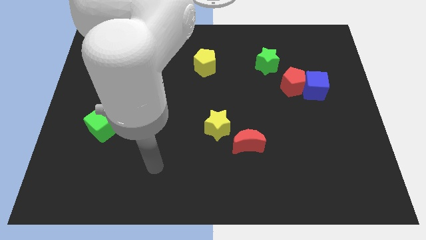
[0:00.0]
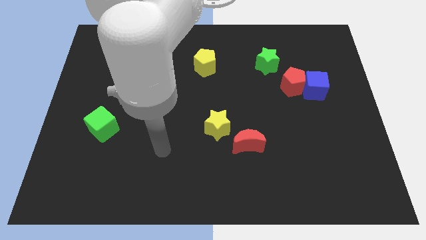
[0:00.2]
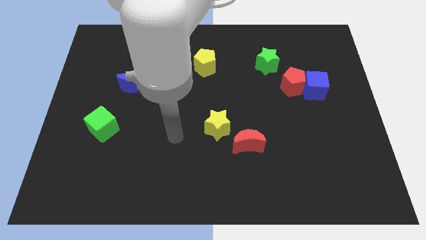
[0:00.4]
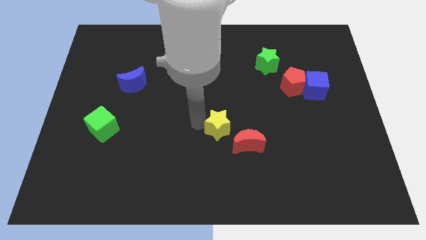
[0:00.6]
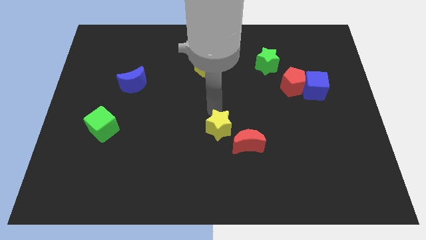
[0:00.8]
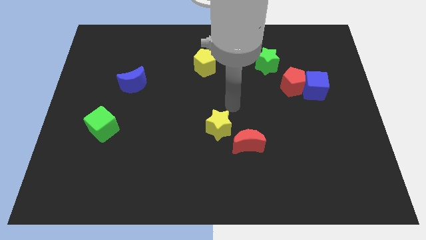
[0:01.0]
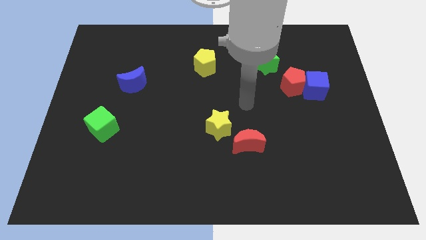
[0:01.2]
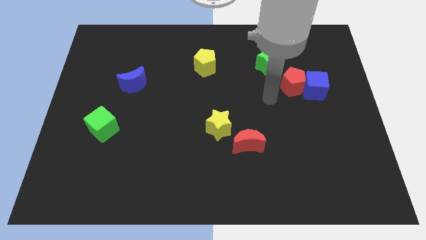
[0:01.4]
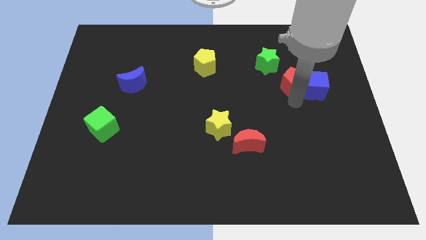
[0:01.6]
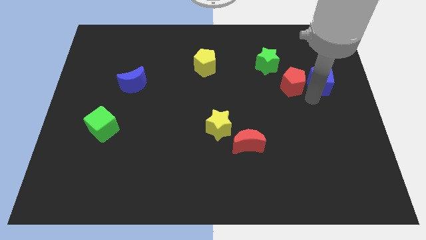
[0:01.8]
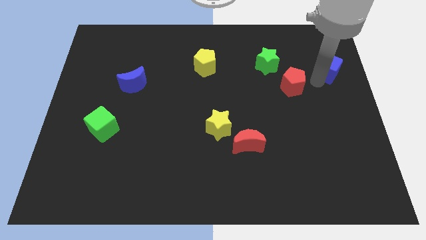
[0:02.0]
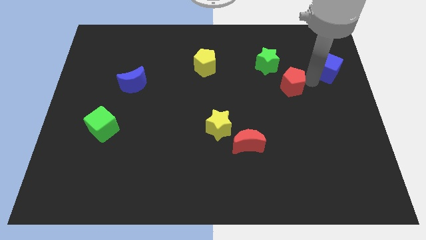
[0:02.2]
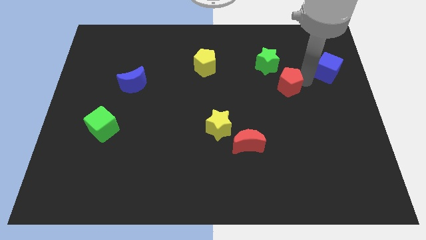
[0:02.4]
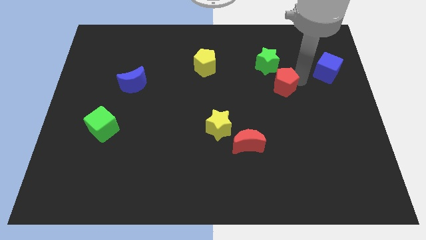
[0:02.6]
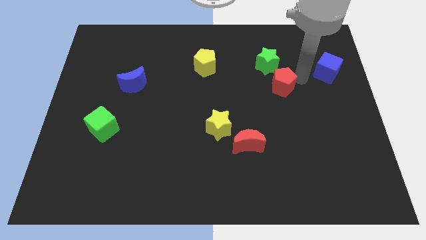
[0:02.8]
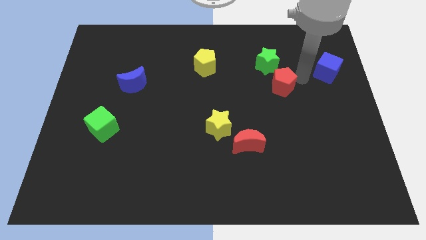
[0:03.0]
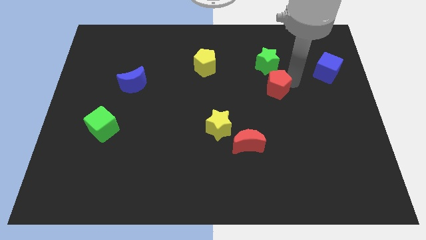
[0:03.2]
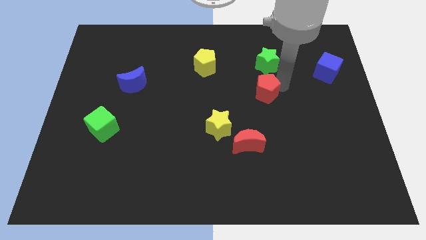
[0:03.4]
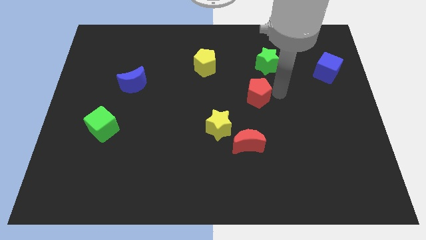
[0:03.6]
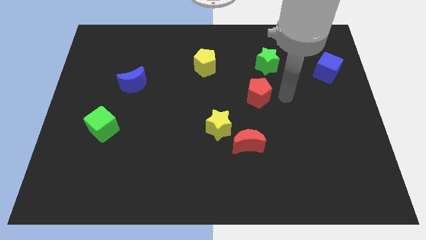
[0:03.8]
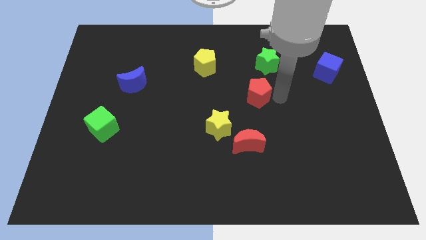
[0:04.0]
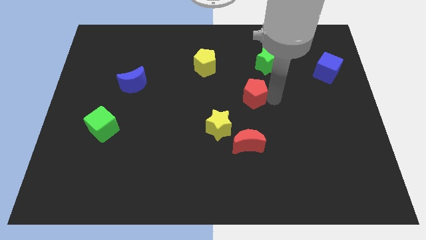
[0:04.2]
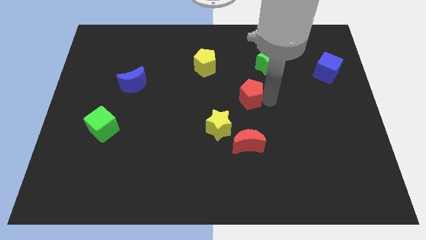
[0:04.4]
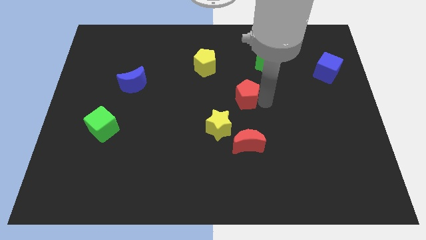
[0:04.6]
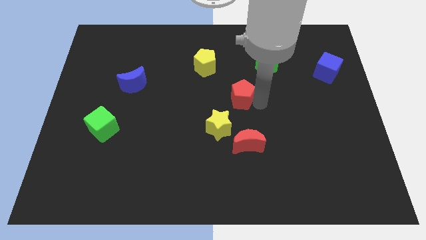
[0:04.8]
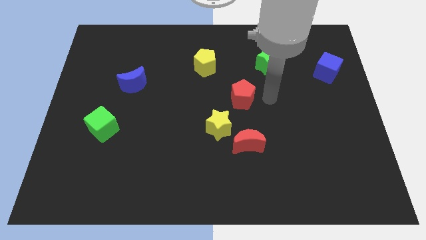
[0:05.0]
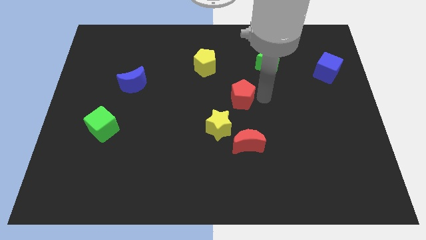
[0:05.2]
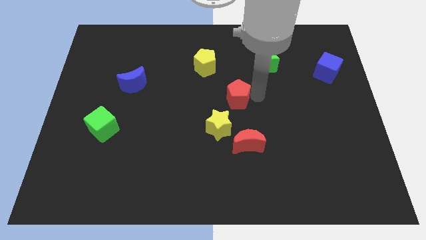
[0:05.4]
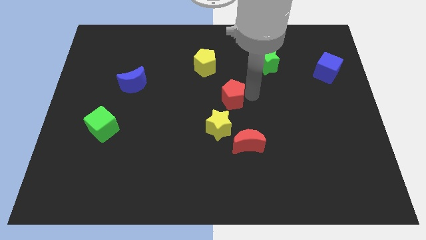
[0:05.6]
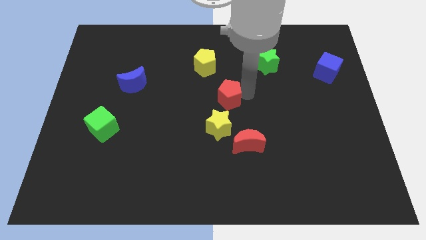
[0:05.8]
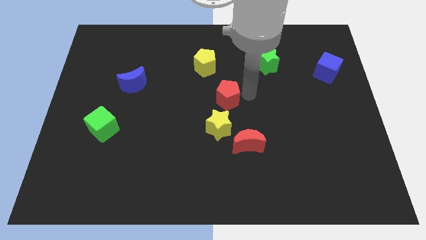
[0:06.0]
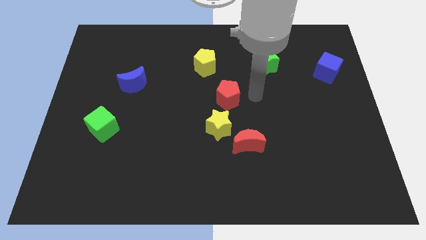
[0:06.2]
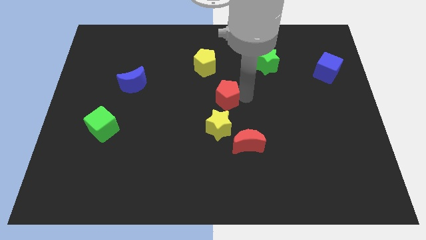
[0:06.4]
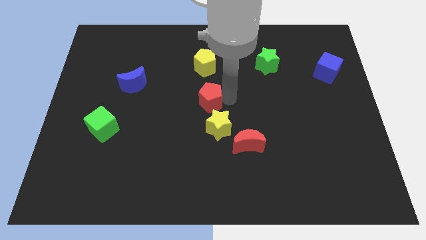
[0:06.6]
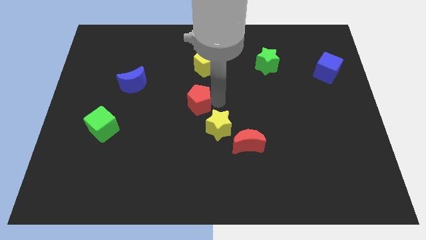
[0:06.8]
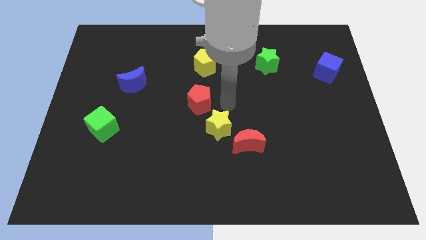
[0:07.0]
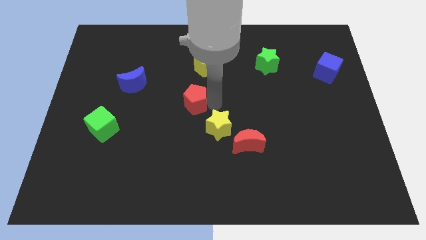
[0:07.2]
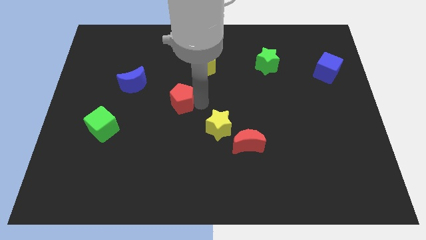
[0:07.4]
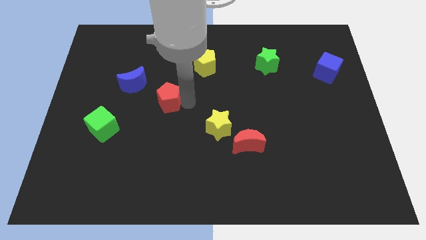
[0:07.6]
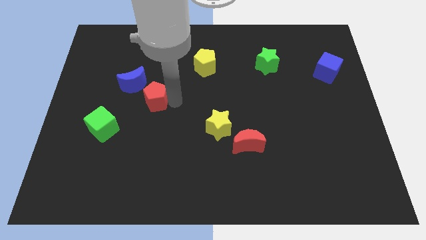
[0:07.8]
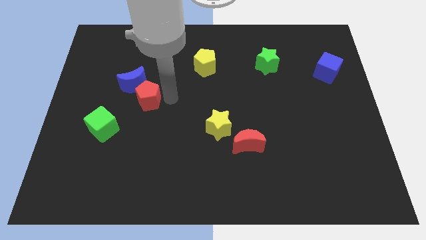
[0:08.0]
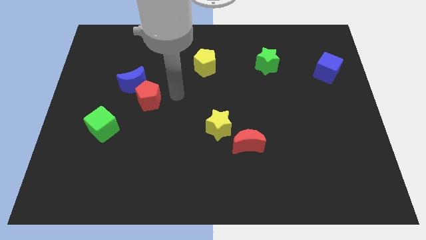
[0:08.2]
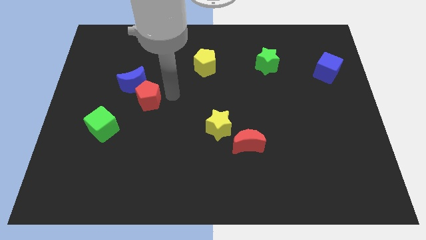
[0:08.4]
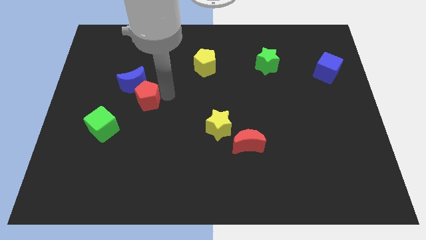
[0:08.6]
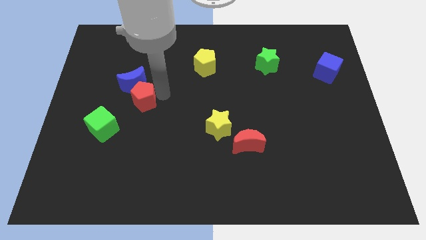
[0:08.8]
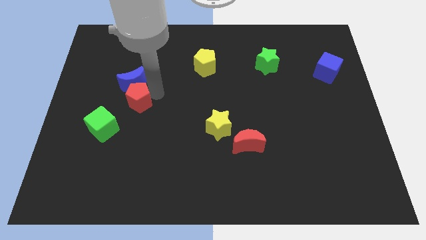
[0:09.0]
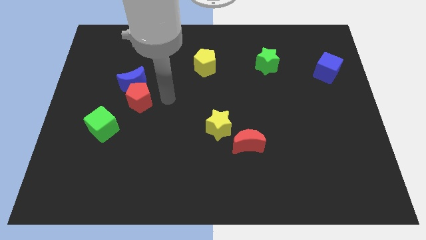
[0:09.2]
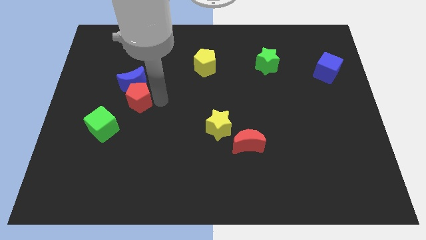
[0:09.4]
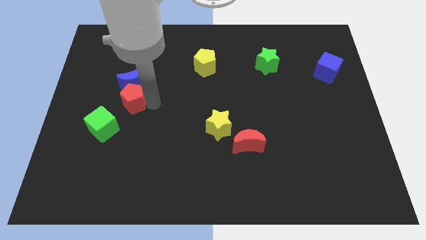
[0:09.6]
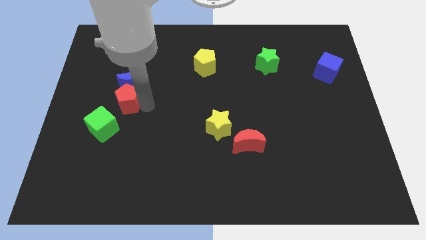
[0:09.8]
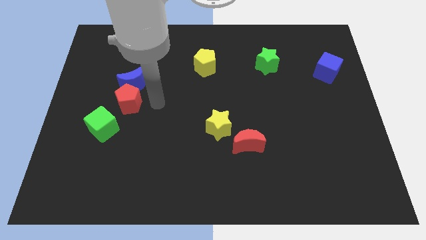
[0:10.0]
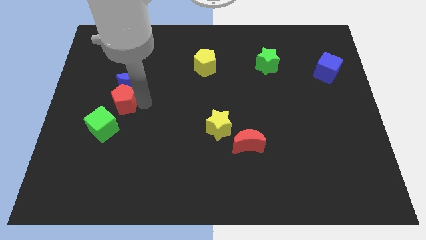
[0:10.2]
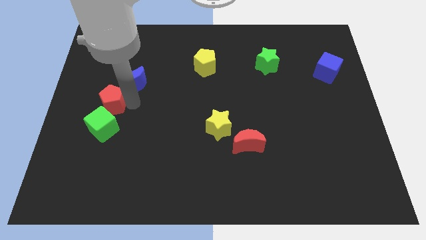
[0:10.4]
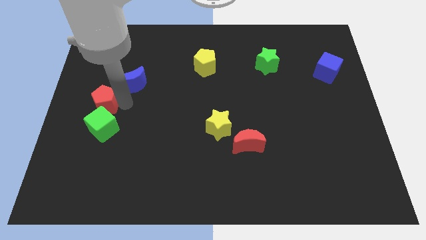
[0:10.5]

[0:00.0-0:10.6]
push the red pentagon to the left side

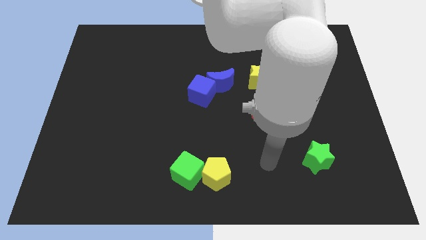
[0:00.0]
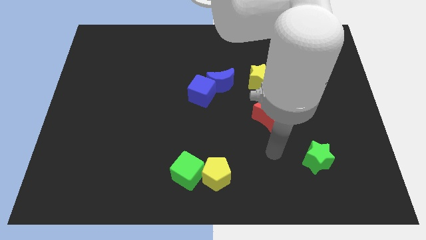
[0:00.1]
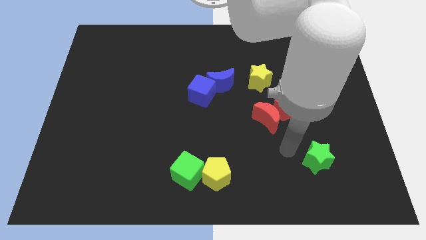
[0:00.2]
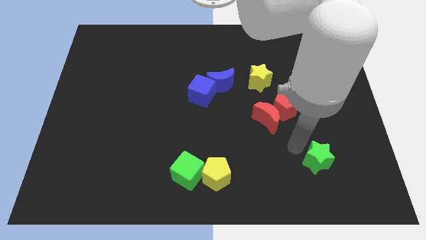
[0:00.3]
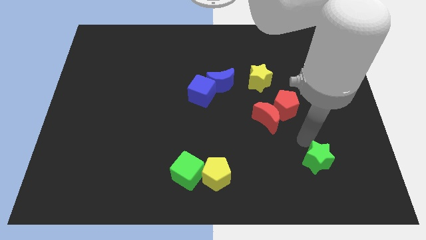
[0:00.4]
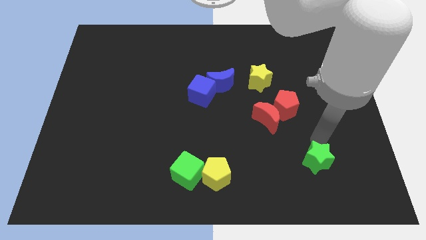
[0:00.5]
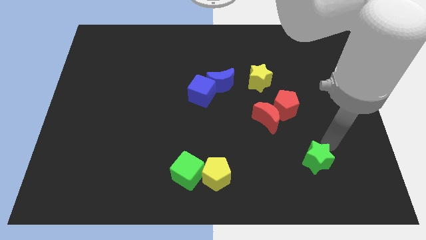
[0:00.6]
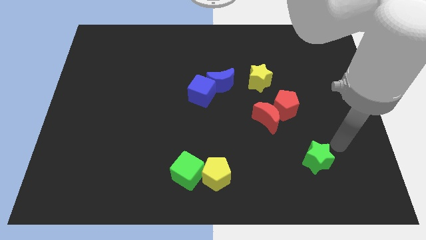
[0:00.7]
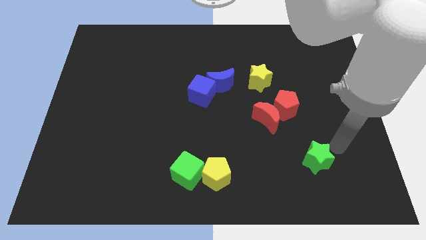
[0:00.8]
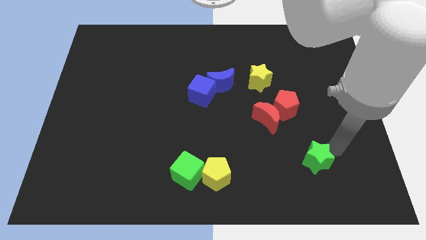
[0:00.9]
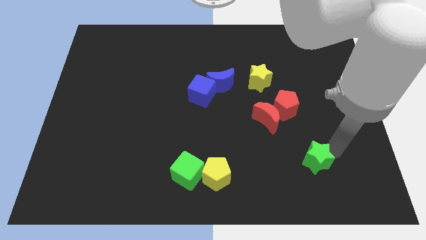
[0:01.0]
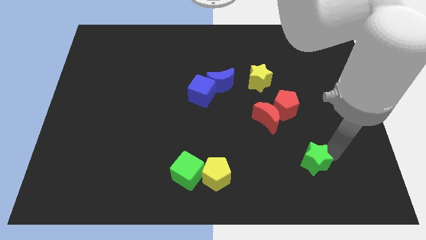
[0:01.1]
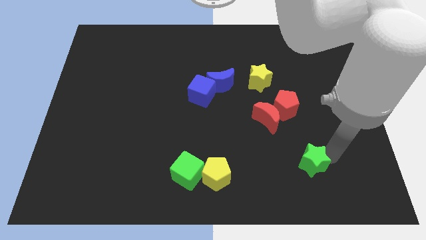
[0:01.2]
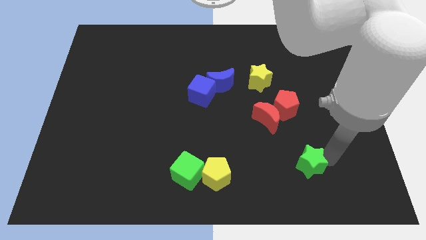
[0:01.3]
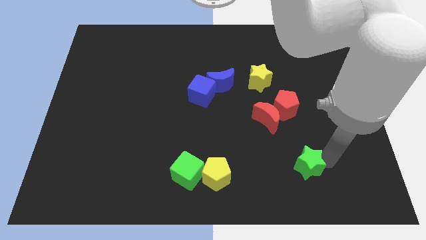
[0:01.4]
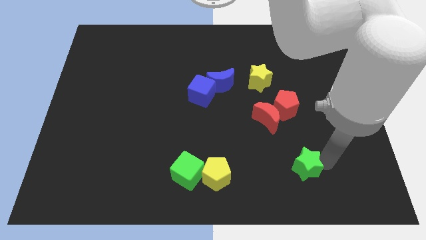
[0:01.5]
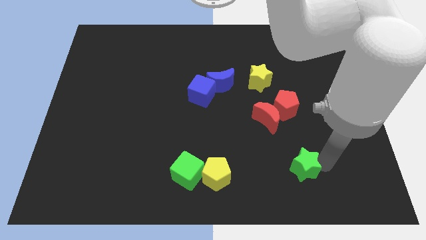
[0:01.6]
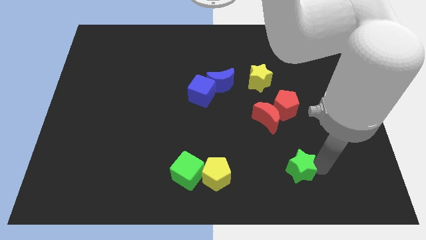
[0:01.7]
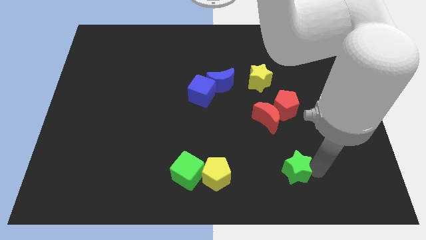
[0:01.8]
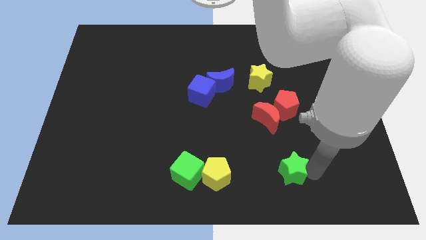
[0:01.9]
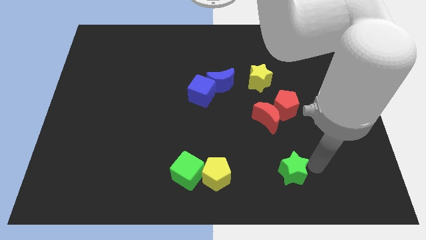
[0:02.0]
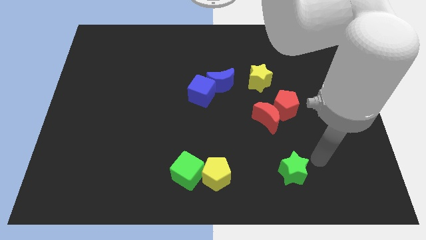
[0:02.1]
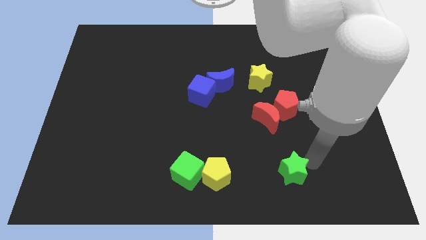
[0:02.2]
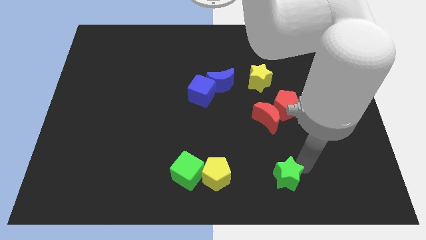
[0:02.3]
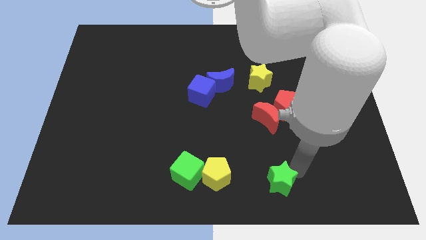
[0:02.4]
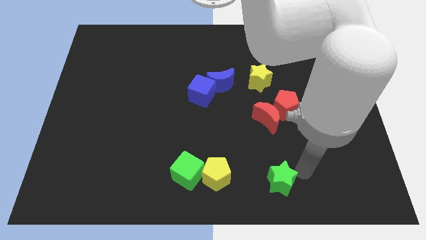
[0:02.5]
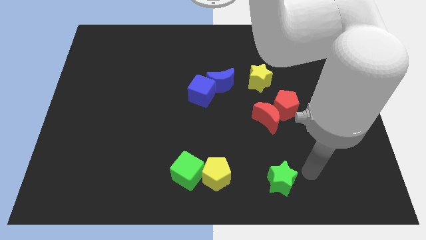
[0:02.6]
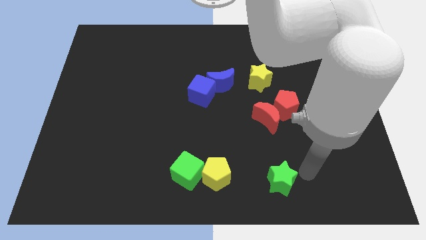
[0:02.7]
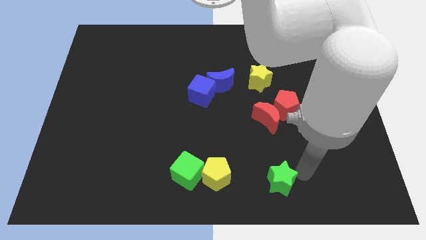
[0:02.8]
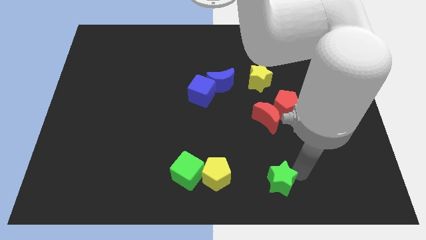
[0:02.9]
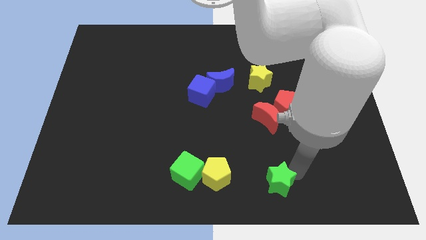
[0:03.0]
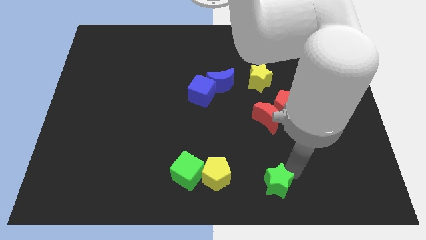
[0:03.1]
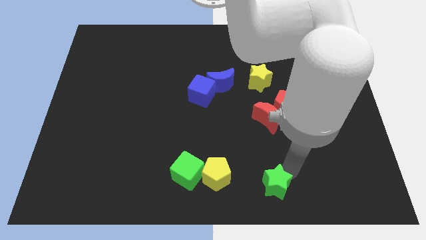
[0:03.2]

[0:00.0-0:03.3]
put the green star to the bottom side
